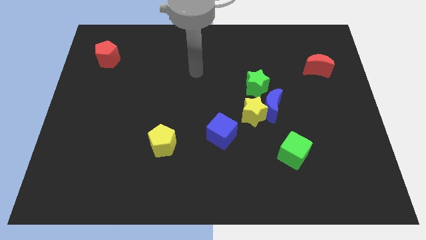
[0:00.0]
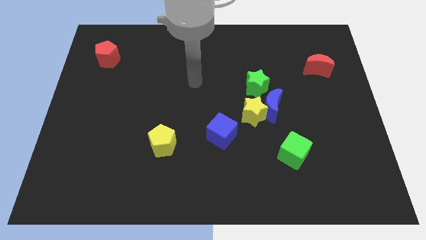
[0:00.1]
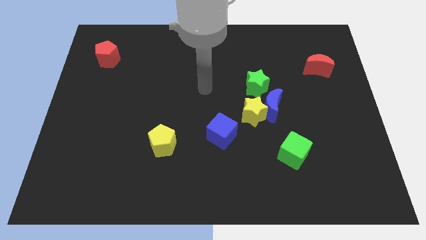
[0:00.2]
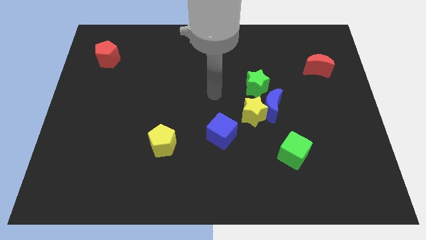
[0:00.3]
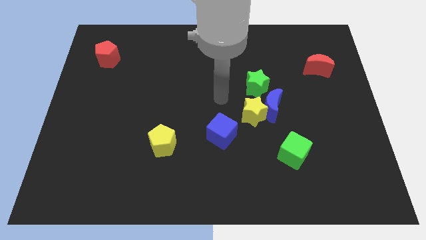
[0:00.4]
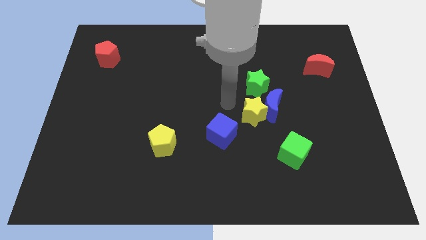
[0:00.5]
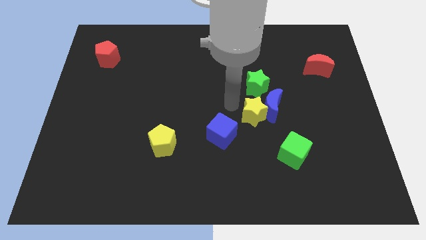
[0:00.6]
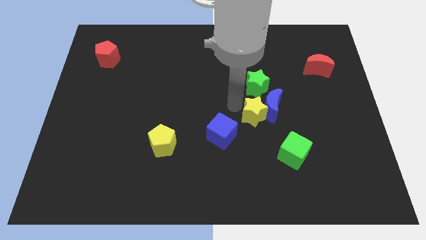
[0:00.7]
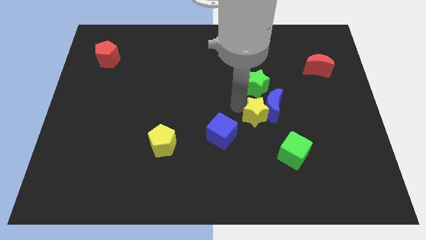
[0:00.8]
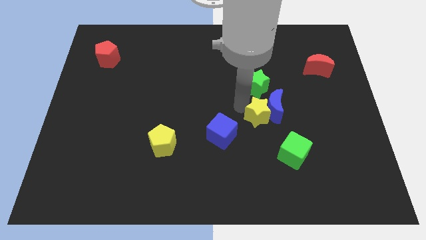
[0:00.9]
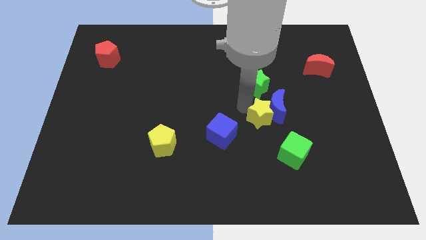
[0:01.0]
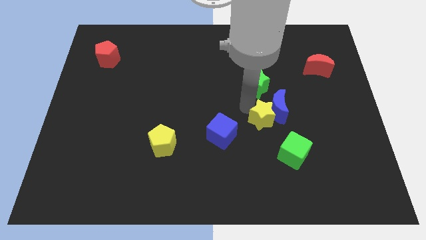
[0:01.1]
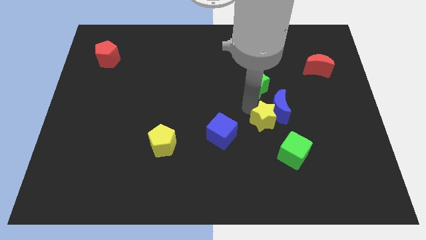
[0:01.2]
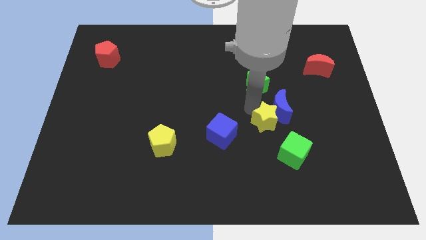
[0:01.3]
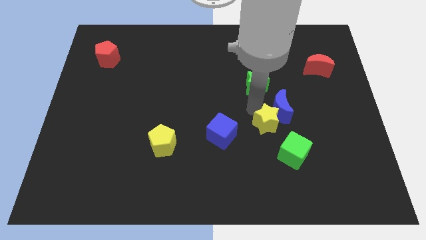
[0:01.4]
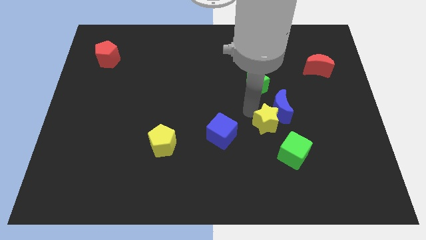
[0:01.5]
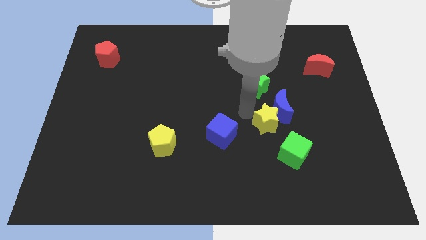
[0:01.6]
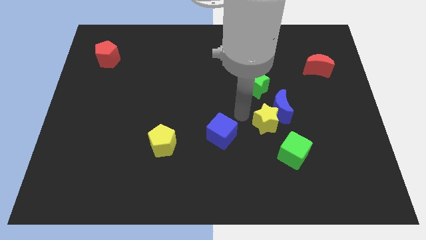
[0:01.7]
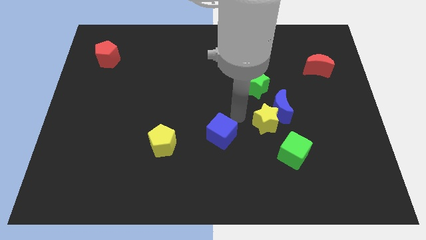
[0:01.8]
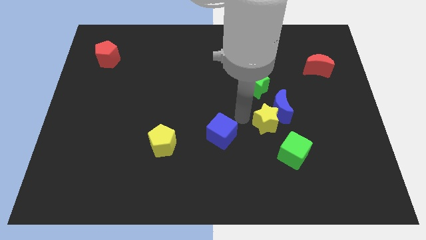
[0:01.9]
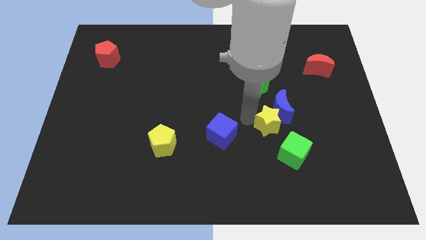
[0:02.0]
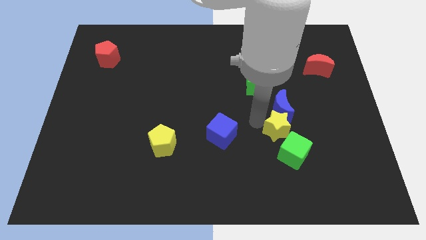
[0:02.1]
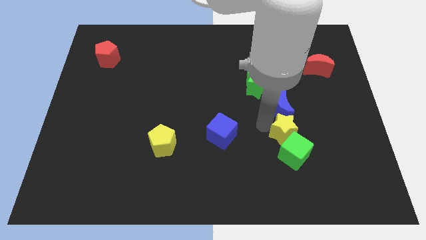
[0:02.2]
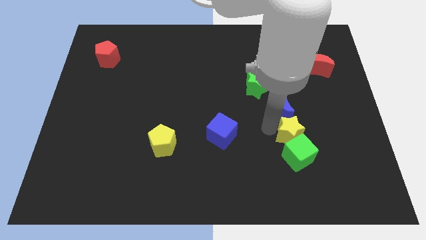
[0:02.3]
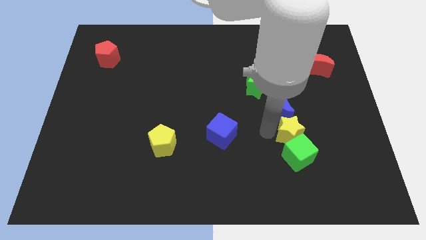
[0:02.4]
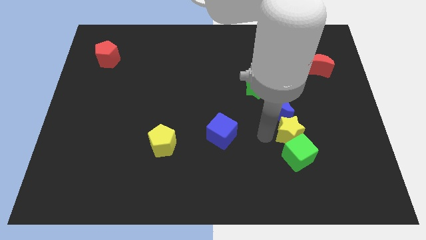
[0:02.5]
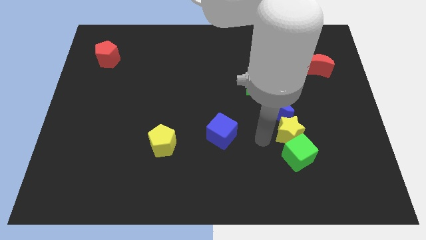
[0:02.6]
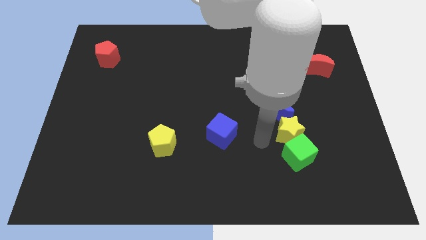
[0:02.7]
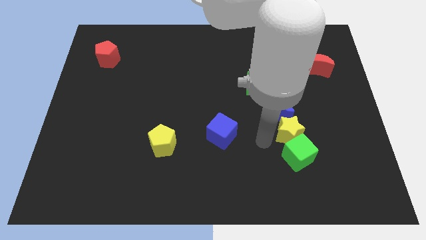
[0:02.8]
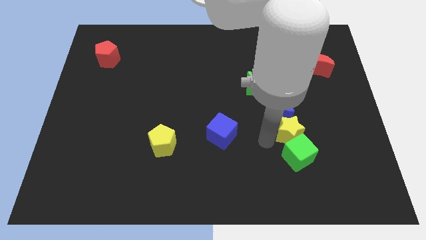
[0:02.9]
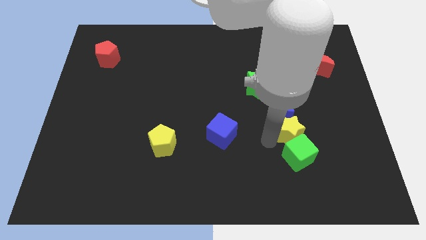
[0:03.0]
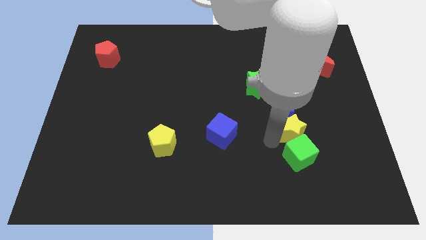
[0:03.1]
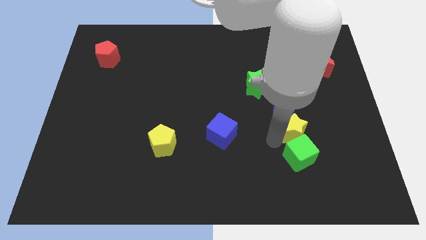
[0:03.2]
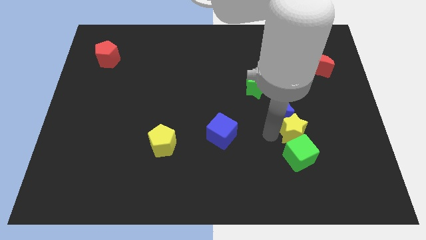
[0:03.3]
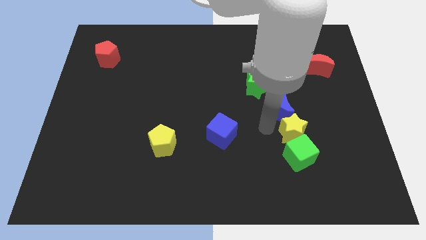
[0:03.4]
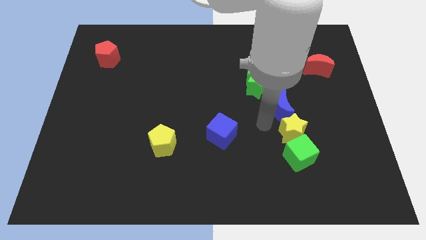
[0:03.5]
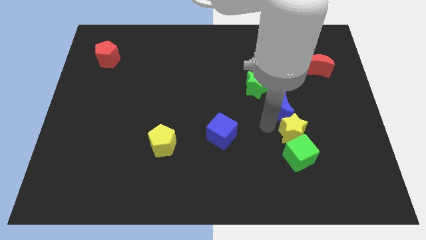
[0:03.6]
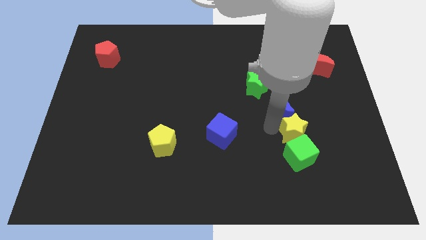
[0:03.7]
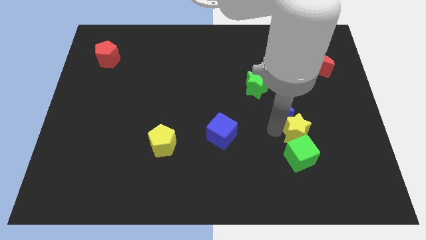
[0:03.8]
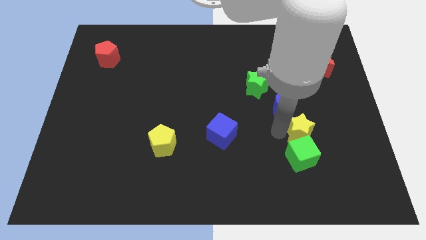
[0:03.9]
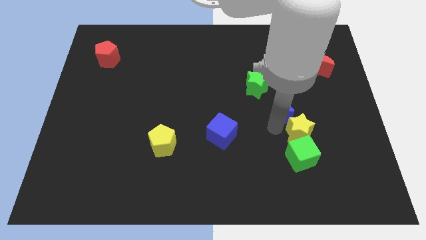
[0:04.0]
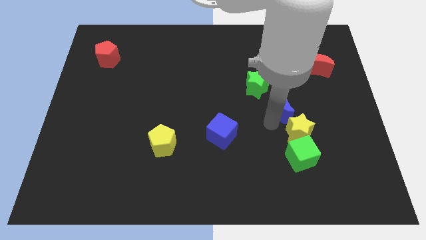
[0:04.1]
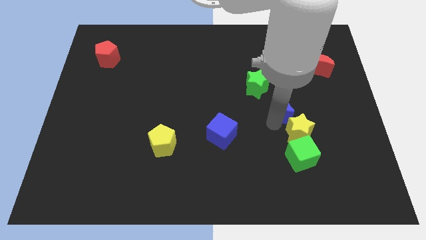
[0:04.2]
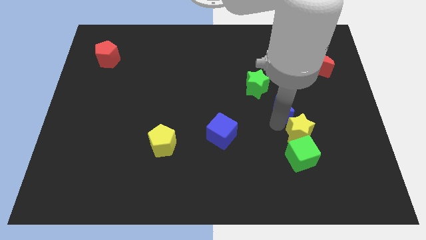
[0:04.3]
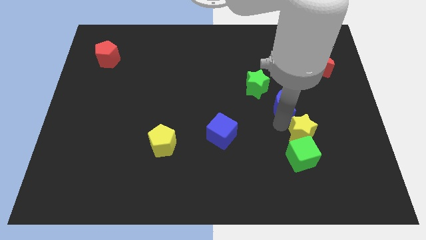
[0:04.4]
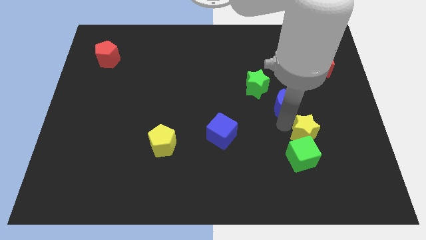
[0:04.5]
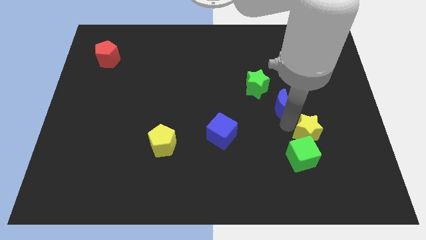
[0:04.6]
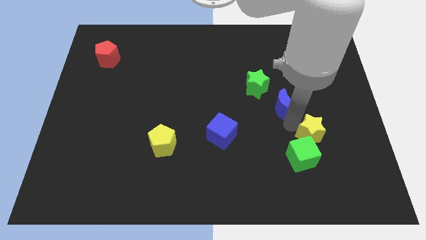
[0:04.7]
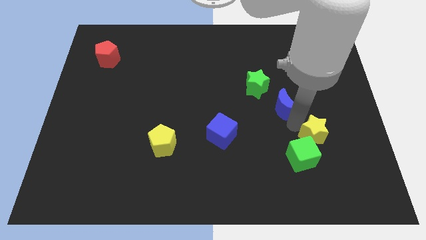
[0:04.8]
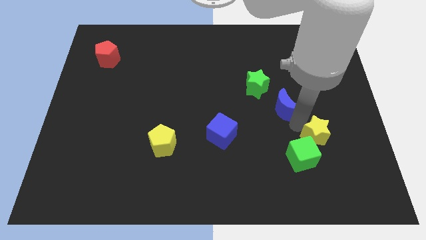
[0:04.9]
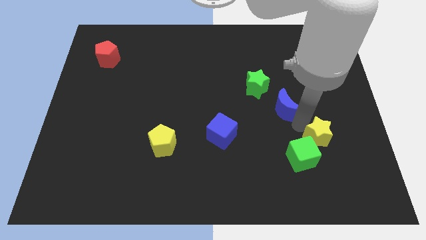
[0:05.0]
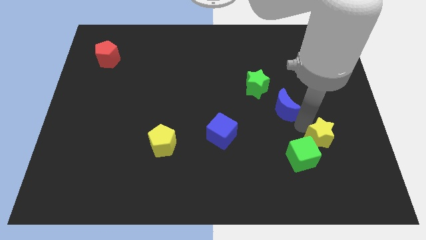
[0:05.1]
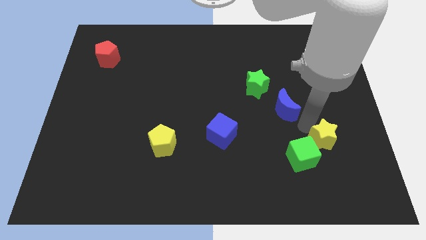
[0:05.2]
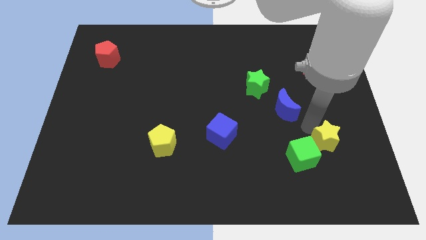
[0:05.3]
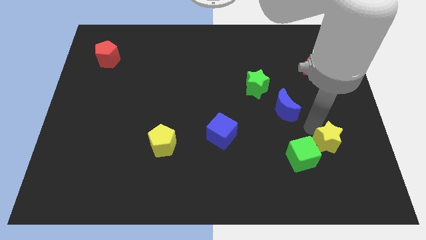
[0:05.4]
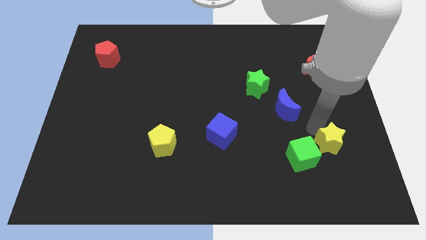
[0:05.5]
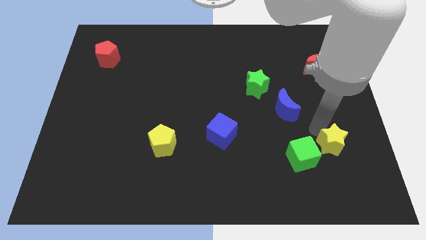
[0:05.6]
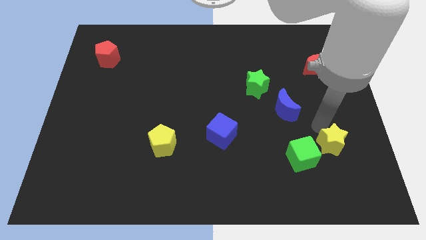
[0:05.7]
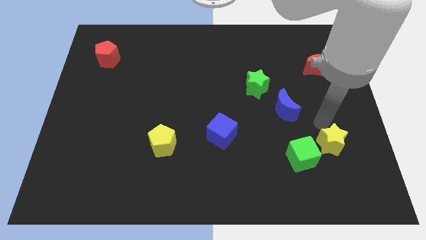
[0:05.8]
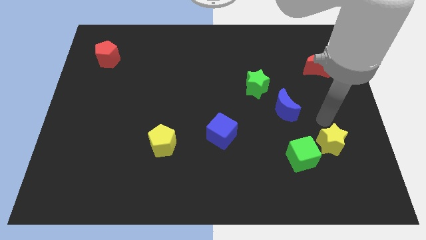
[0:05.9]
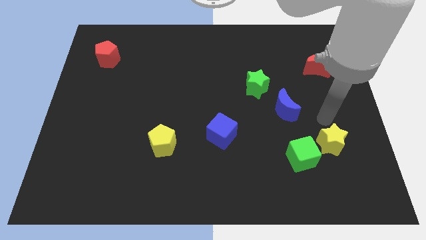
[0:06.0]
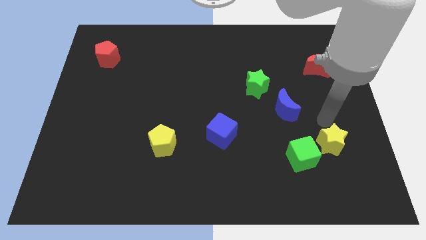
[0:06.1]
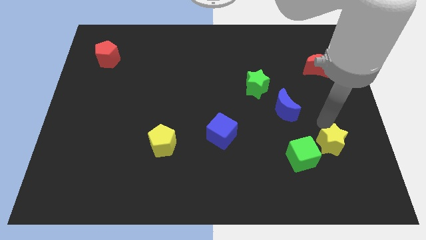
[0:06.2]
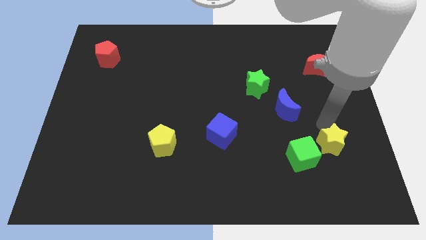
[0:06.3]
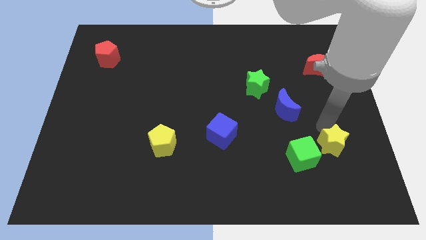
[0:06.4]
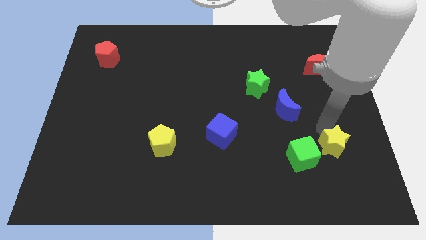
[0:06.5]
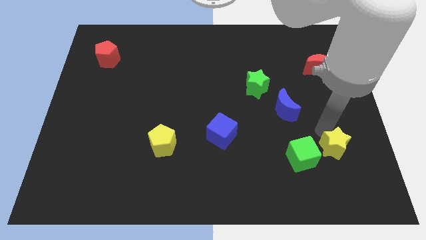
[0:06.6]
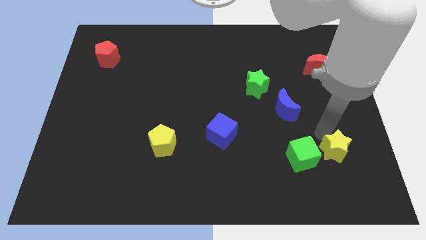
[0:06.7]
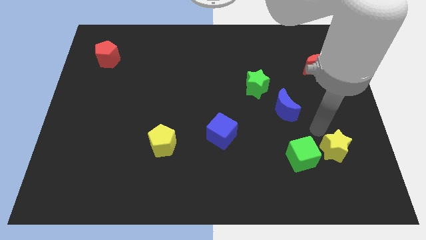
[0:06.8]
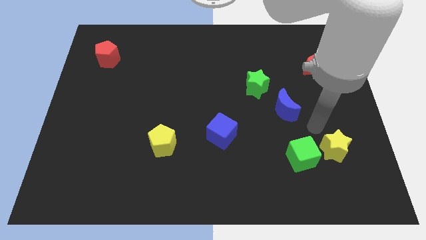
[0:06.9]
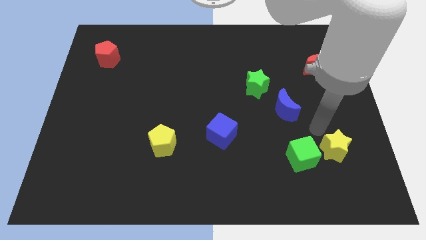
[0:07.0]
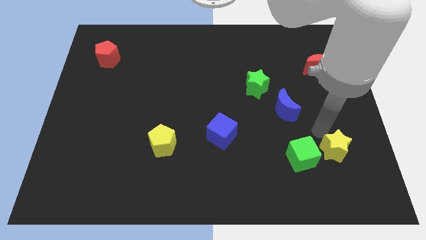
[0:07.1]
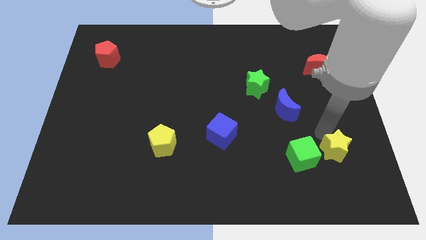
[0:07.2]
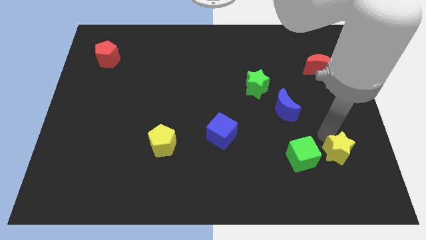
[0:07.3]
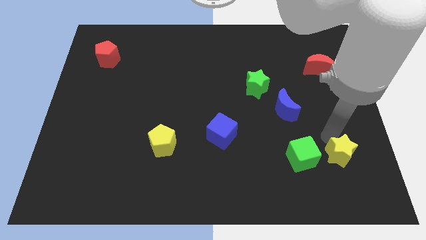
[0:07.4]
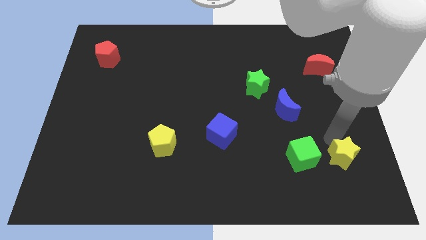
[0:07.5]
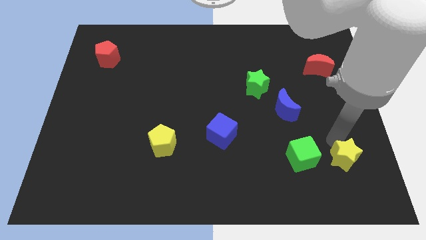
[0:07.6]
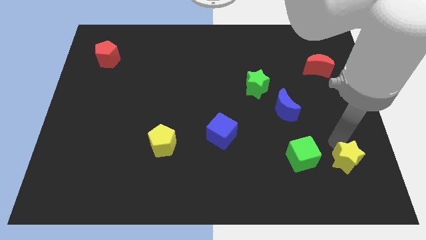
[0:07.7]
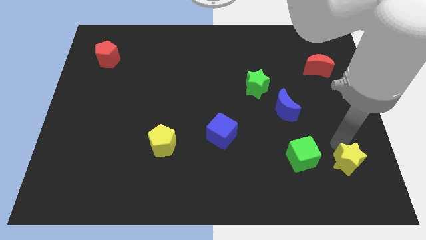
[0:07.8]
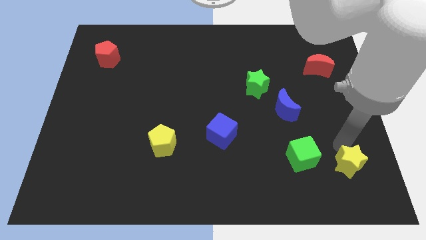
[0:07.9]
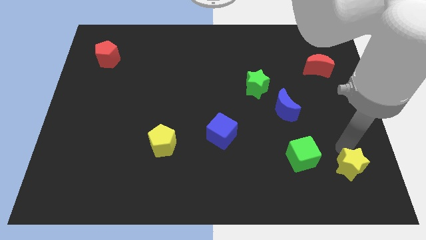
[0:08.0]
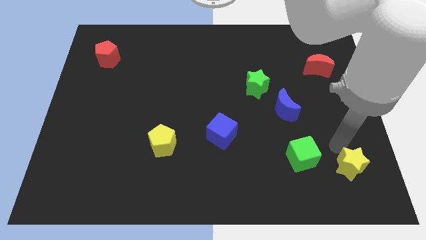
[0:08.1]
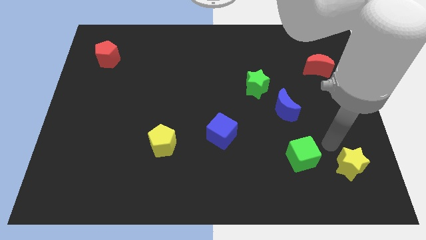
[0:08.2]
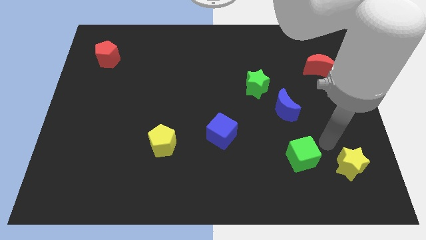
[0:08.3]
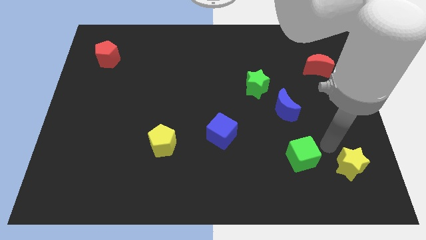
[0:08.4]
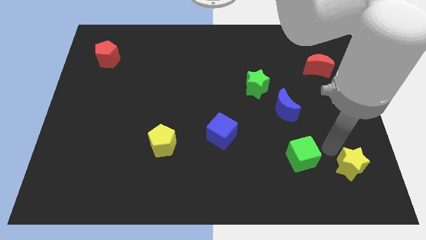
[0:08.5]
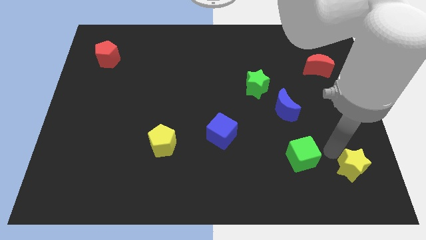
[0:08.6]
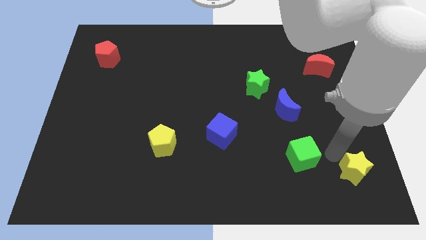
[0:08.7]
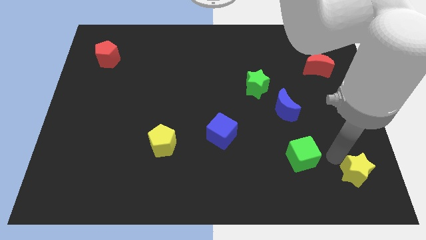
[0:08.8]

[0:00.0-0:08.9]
put the yellow star to the bottom right
